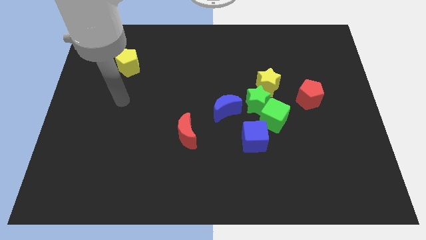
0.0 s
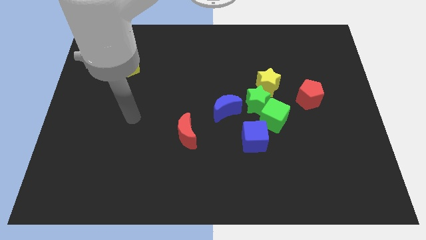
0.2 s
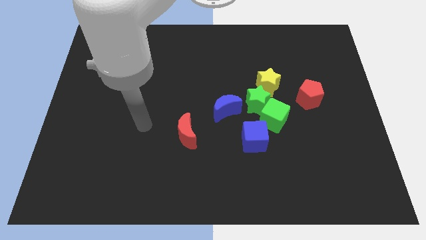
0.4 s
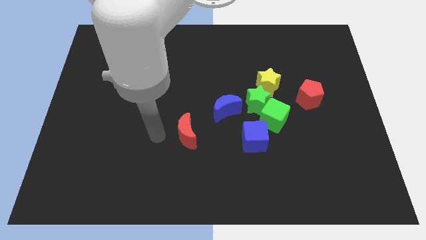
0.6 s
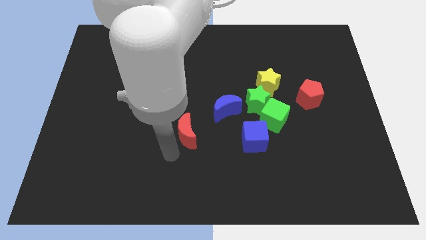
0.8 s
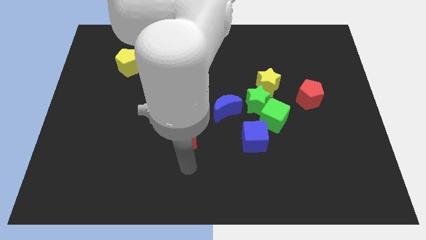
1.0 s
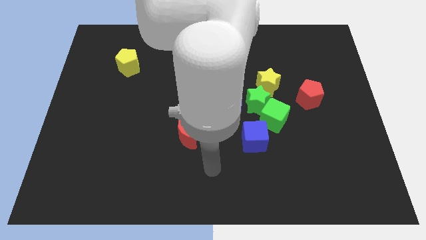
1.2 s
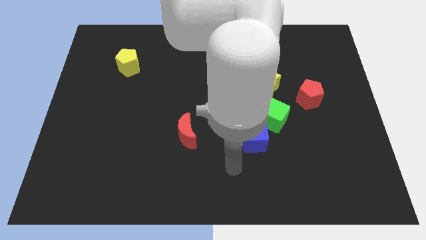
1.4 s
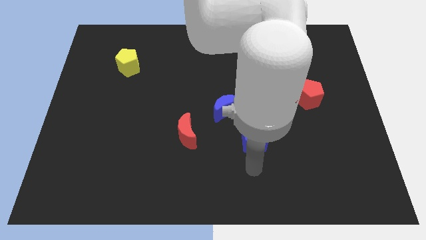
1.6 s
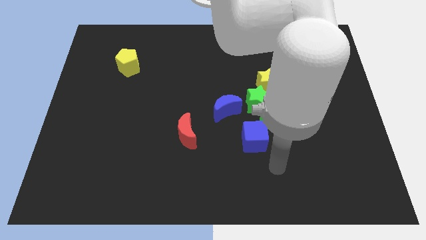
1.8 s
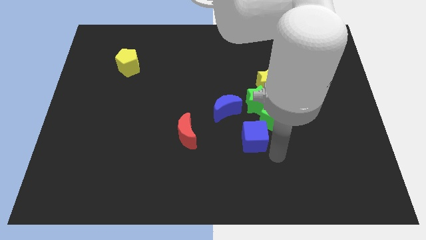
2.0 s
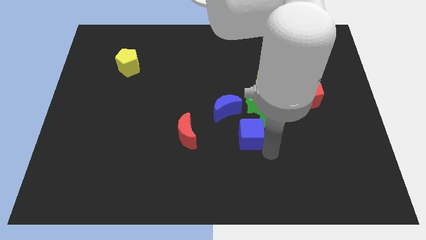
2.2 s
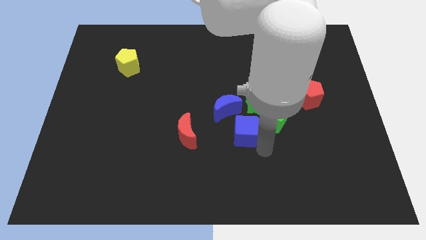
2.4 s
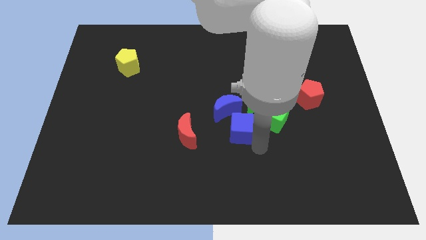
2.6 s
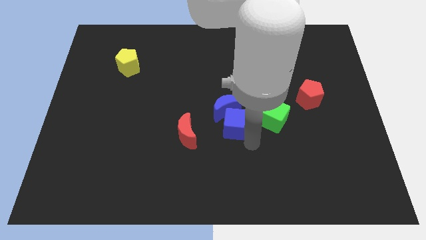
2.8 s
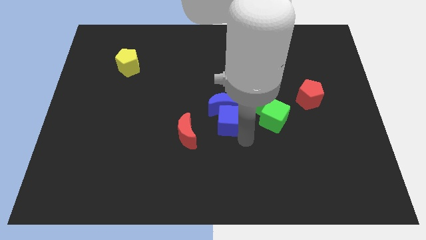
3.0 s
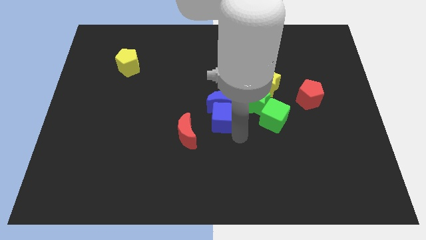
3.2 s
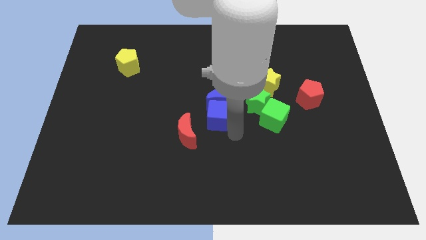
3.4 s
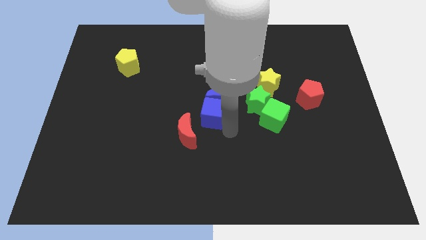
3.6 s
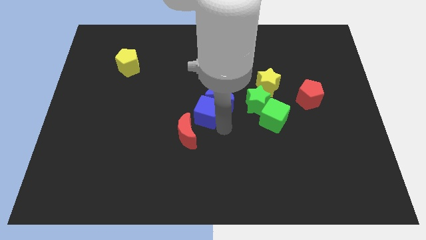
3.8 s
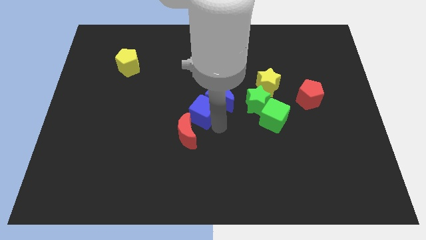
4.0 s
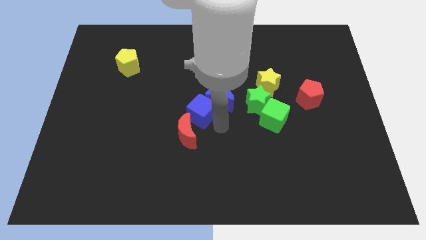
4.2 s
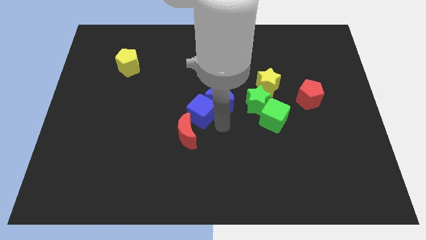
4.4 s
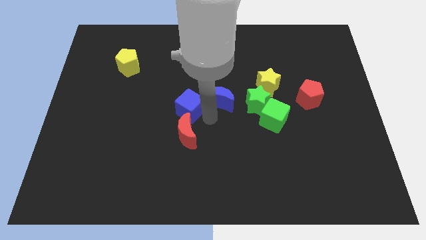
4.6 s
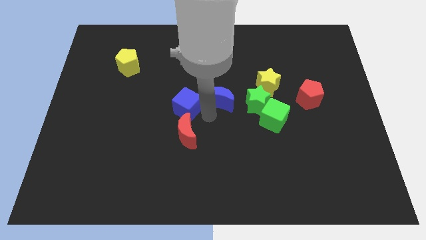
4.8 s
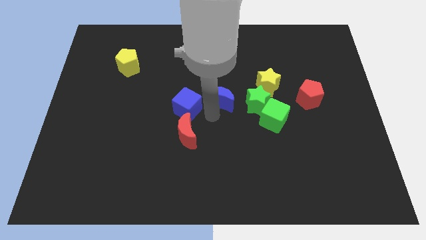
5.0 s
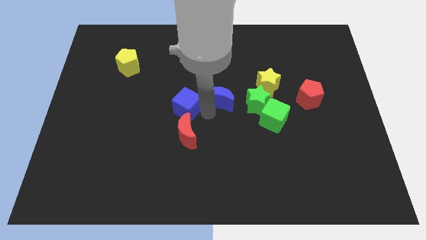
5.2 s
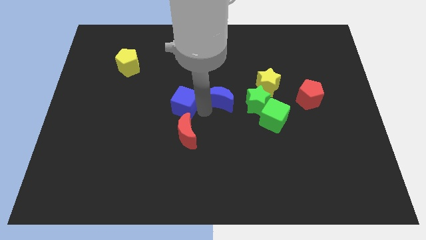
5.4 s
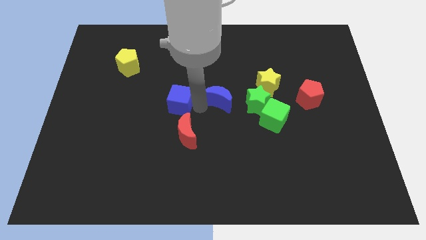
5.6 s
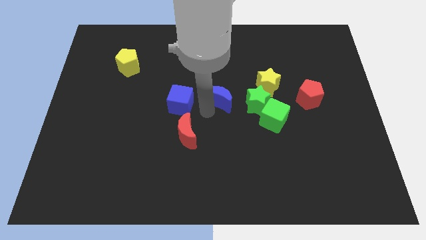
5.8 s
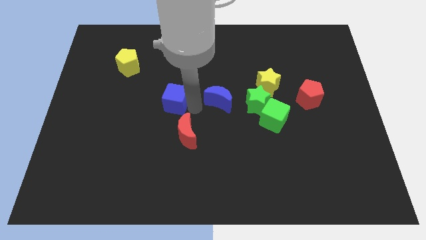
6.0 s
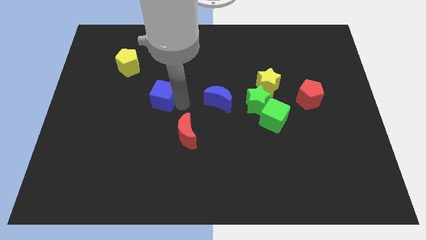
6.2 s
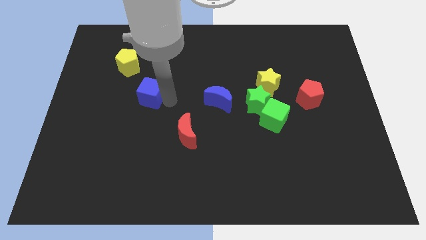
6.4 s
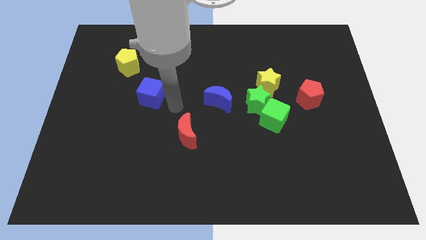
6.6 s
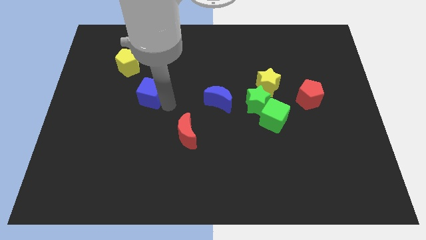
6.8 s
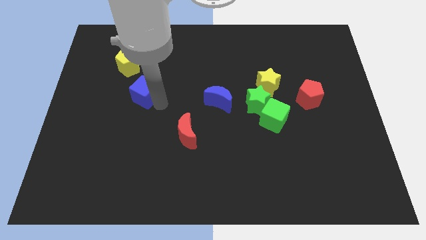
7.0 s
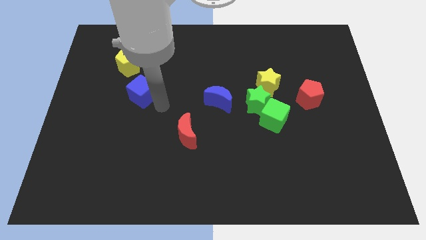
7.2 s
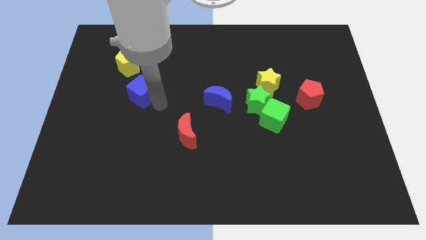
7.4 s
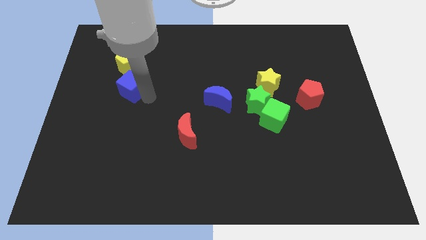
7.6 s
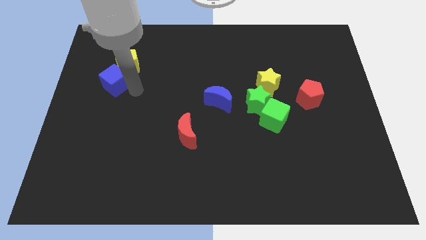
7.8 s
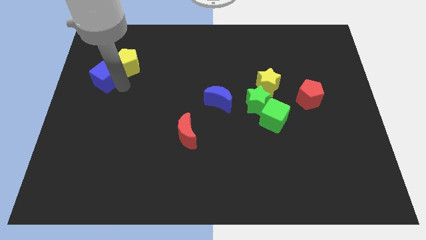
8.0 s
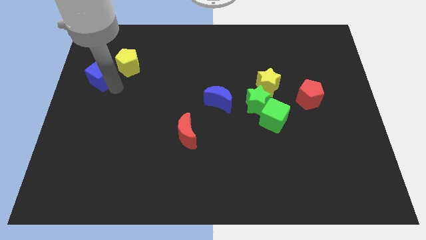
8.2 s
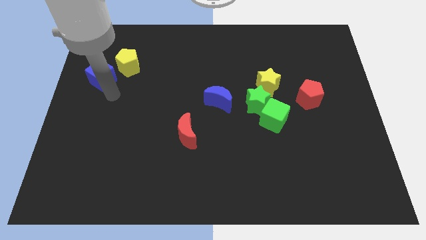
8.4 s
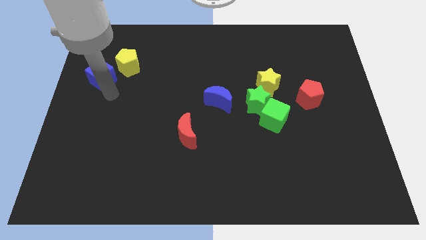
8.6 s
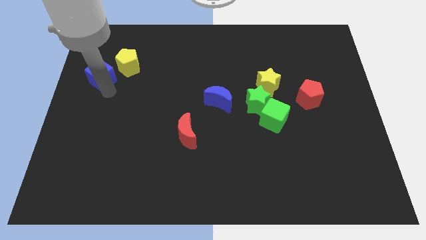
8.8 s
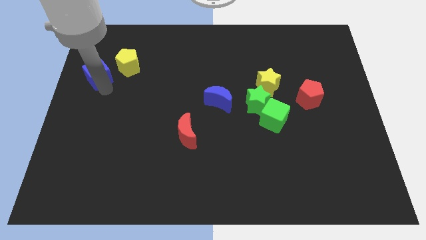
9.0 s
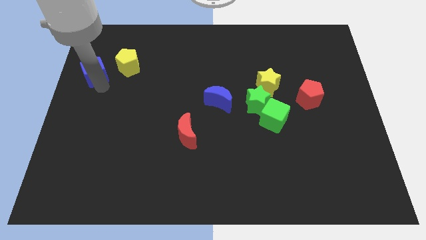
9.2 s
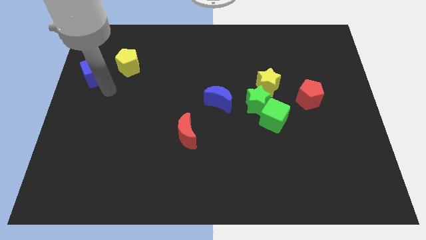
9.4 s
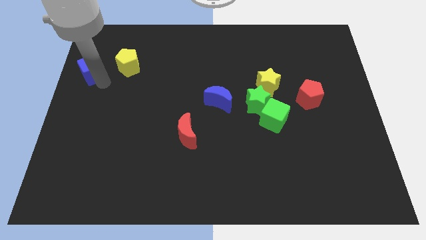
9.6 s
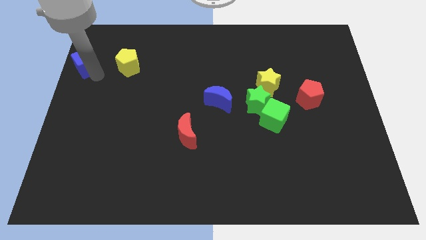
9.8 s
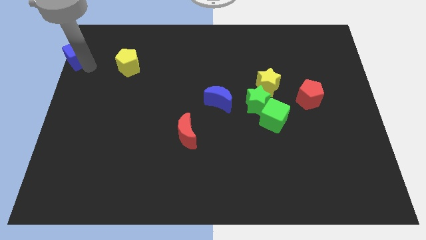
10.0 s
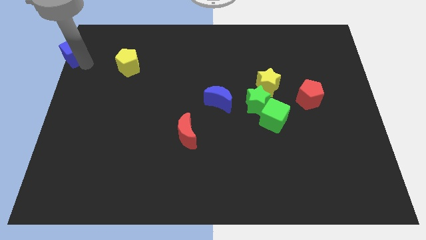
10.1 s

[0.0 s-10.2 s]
slide the blue cube to the top left
